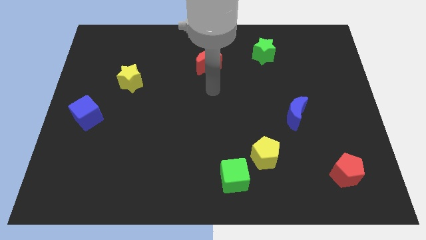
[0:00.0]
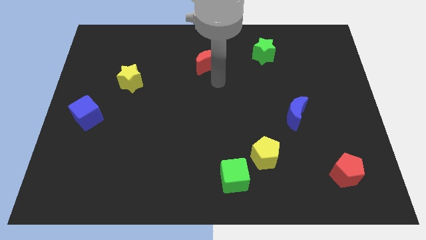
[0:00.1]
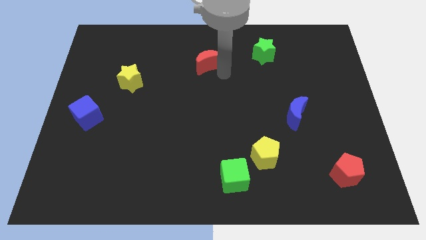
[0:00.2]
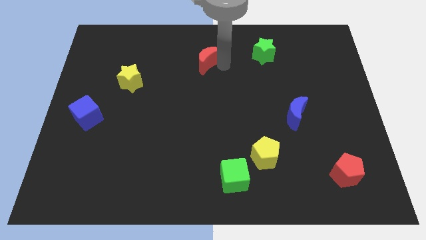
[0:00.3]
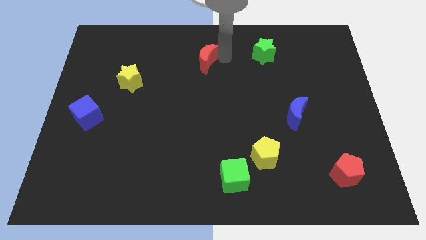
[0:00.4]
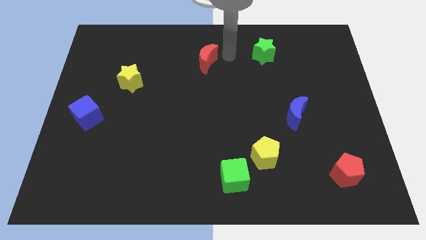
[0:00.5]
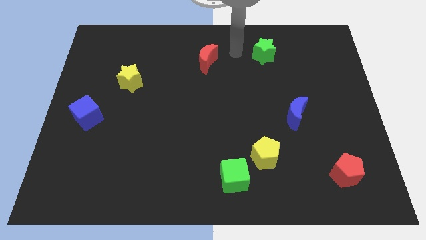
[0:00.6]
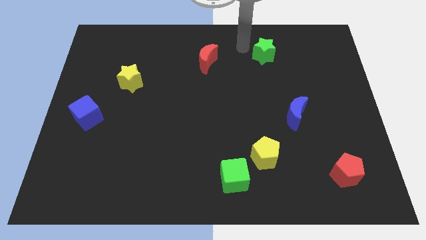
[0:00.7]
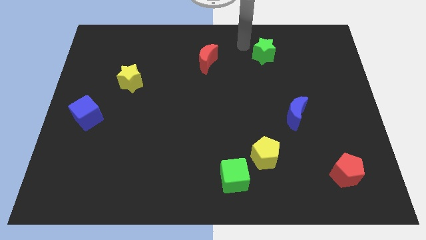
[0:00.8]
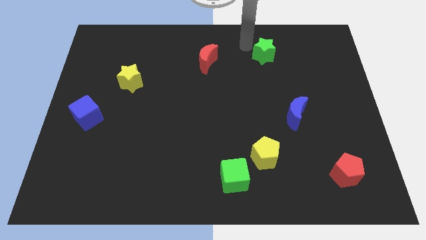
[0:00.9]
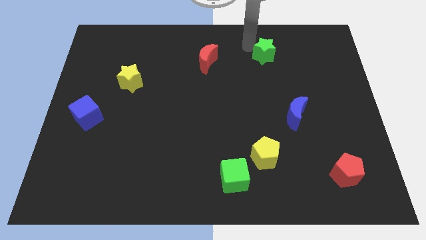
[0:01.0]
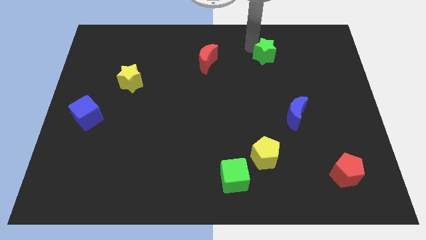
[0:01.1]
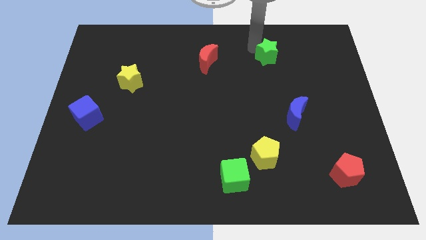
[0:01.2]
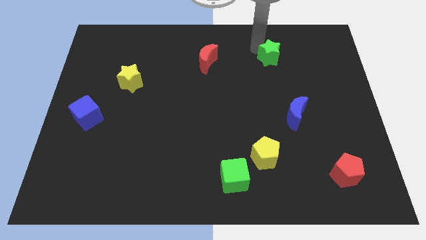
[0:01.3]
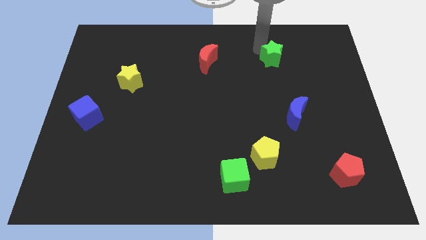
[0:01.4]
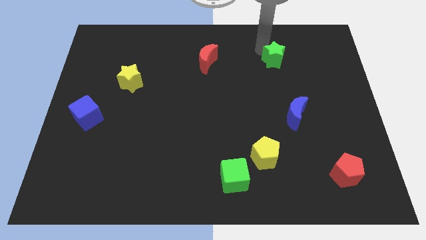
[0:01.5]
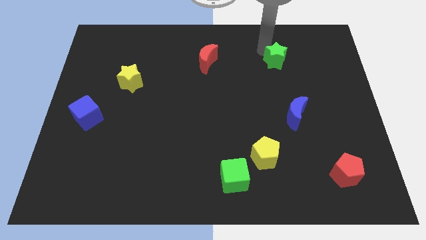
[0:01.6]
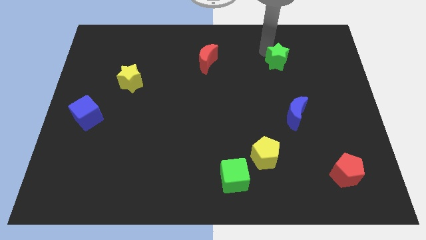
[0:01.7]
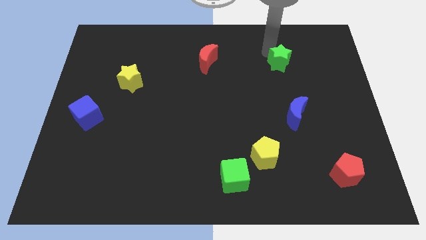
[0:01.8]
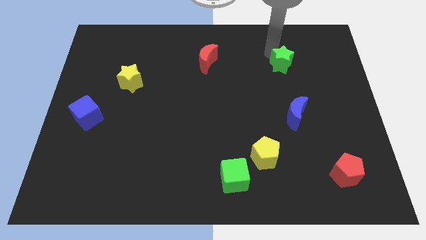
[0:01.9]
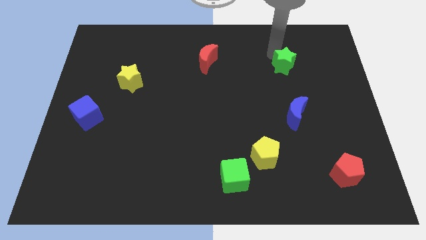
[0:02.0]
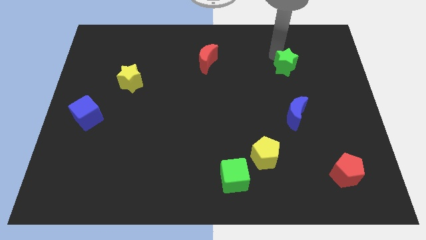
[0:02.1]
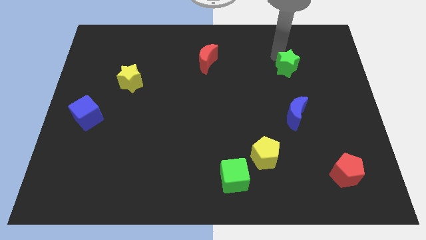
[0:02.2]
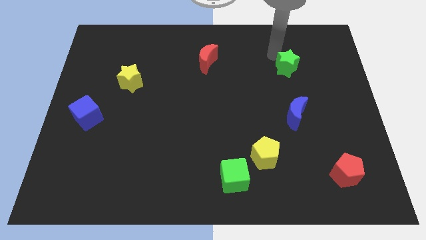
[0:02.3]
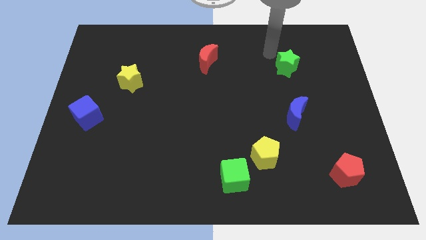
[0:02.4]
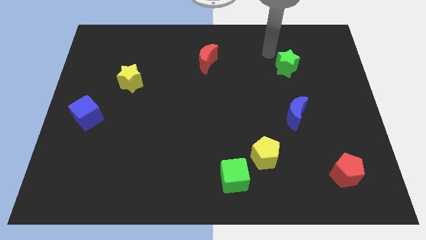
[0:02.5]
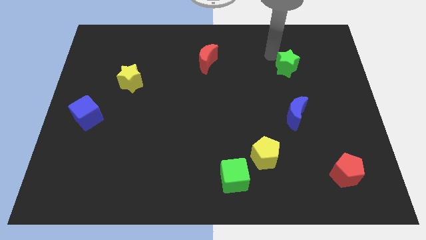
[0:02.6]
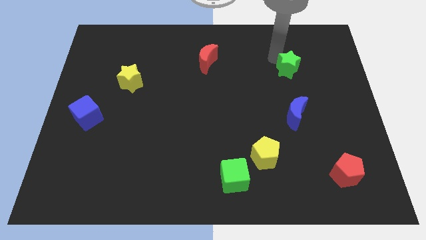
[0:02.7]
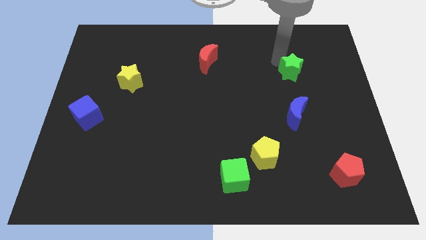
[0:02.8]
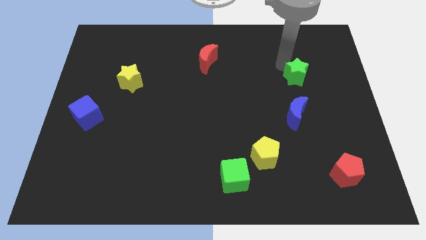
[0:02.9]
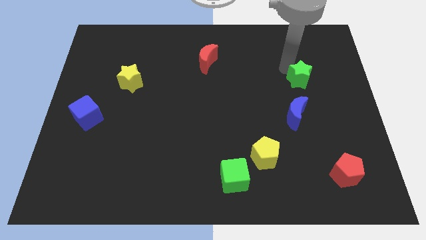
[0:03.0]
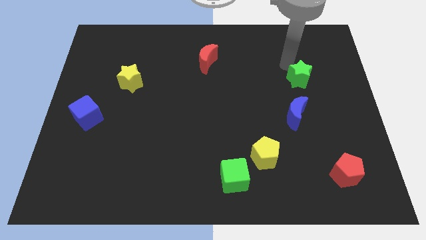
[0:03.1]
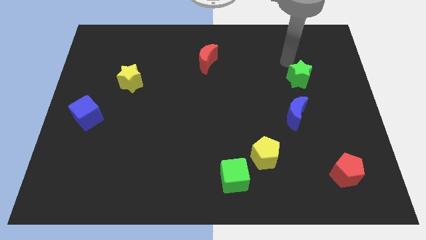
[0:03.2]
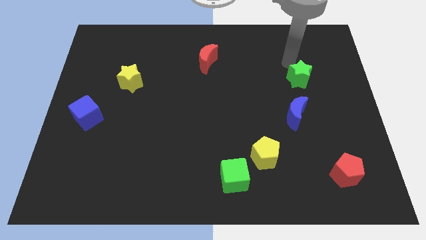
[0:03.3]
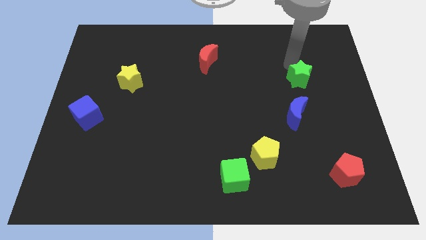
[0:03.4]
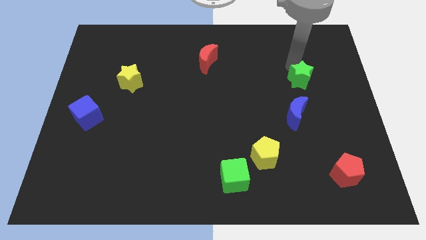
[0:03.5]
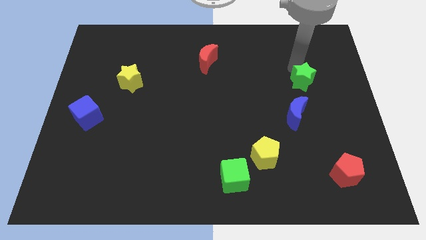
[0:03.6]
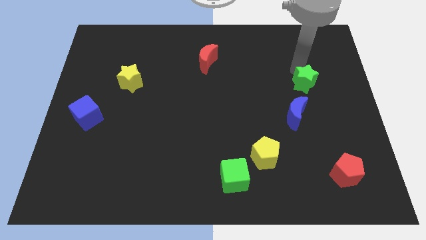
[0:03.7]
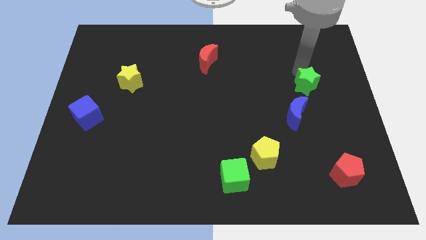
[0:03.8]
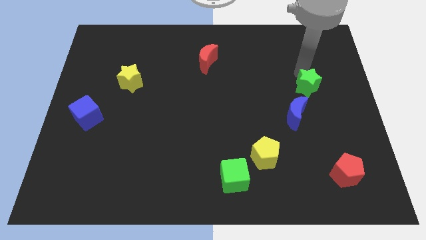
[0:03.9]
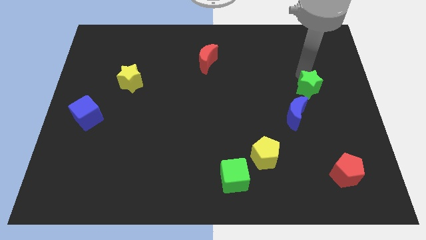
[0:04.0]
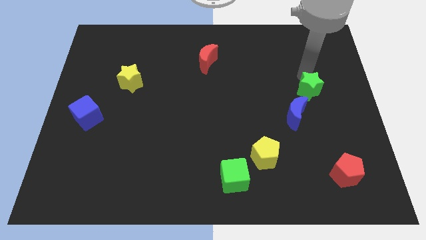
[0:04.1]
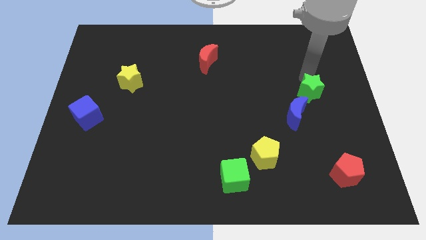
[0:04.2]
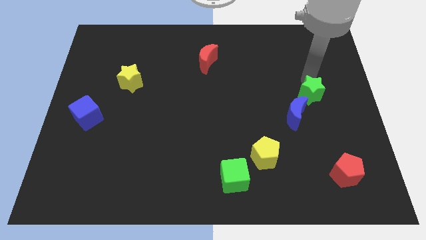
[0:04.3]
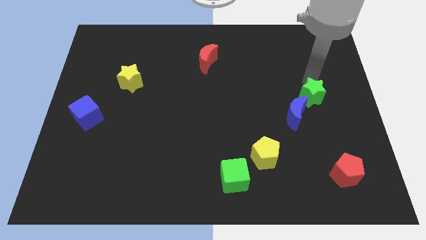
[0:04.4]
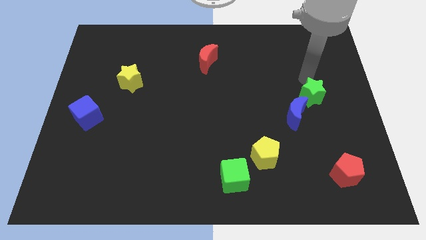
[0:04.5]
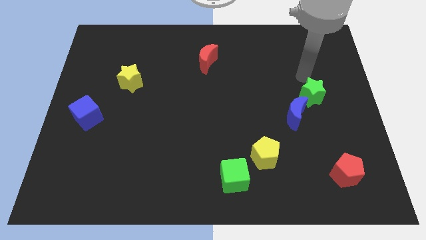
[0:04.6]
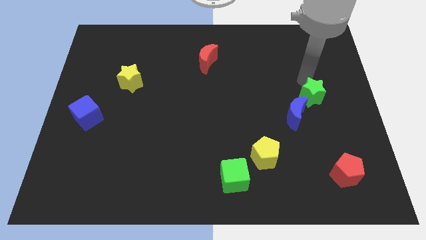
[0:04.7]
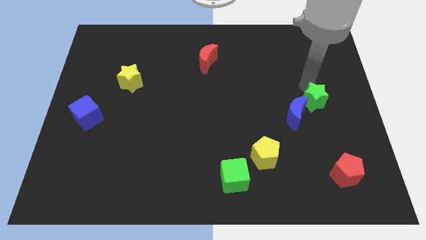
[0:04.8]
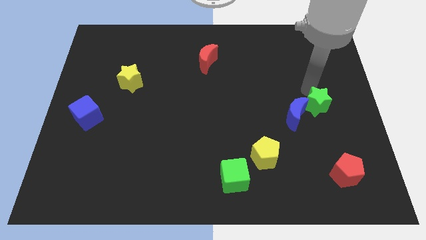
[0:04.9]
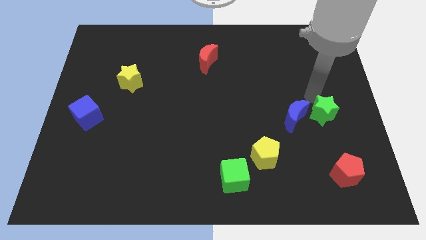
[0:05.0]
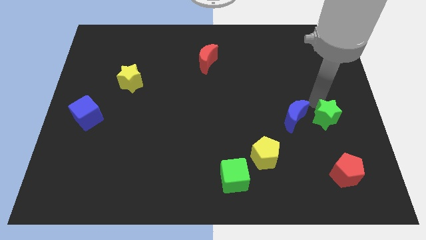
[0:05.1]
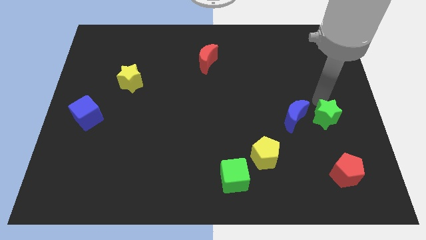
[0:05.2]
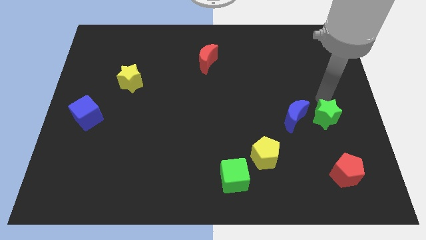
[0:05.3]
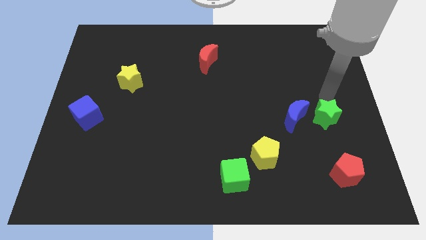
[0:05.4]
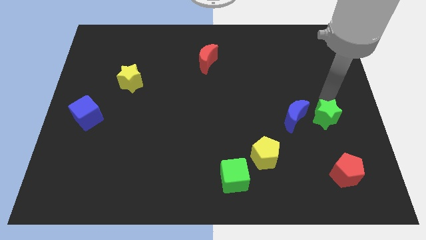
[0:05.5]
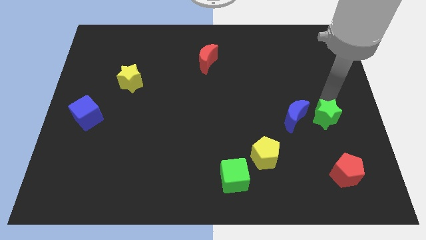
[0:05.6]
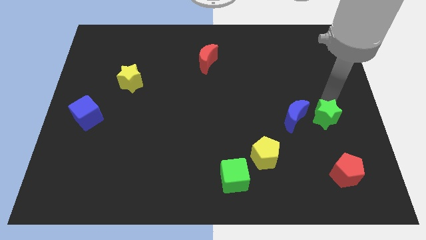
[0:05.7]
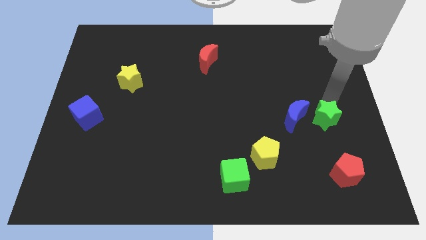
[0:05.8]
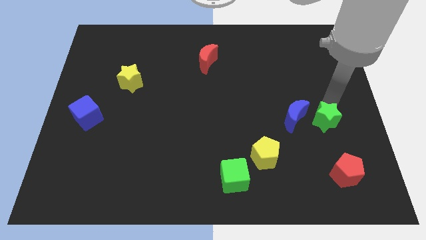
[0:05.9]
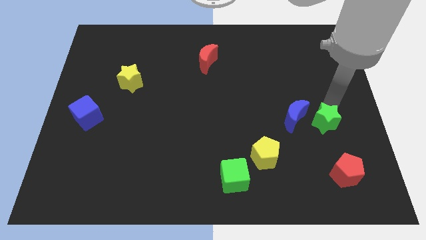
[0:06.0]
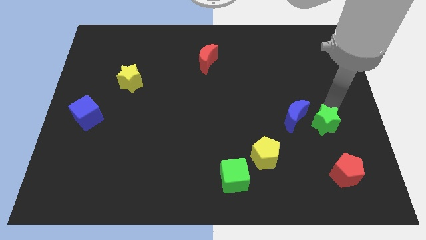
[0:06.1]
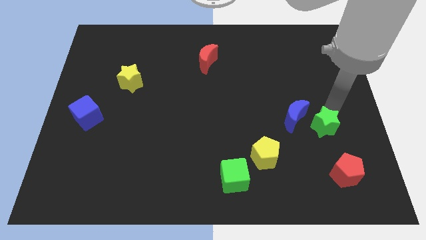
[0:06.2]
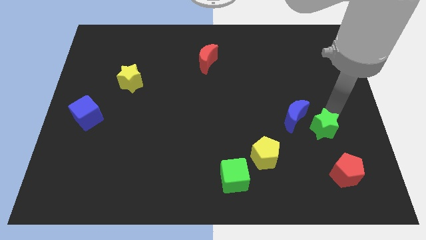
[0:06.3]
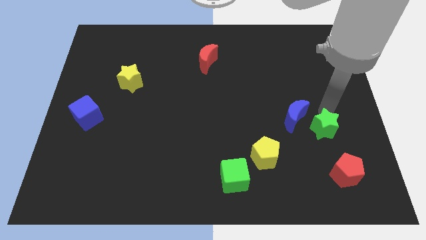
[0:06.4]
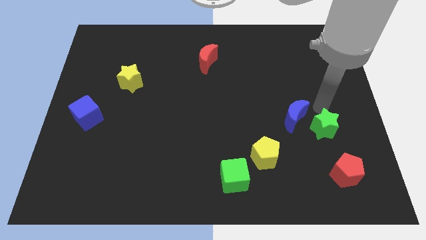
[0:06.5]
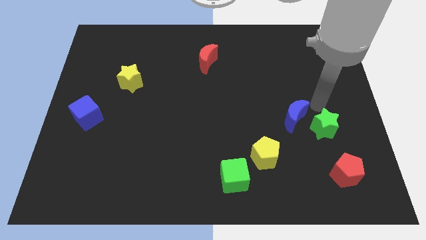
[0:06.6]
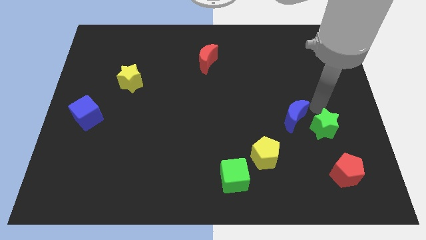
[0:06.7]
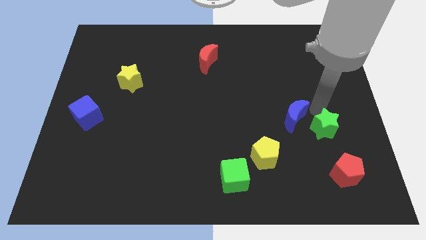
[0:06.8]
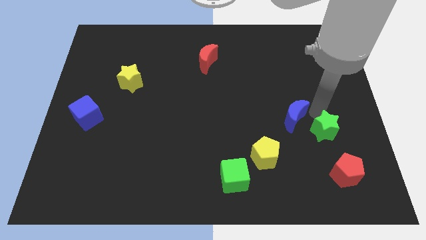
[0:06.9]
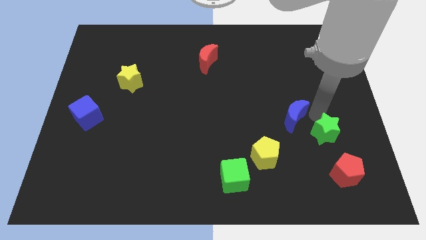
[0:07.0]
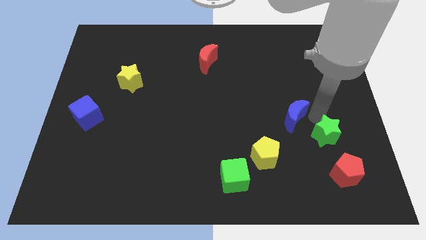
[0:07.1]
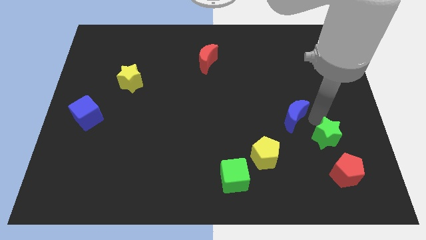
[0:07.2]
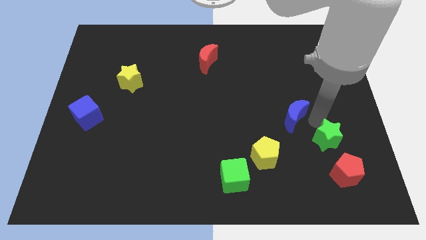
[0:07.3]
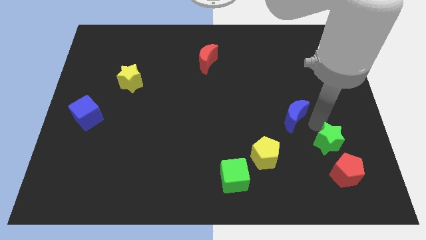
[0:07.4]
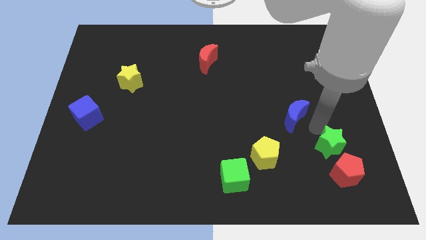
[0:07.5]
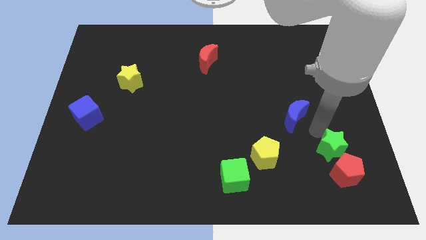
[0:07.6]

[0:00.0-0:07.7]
slide the green star to the red pentagon
